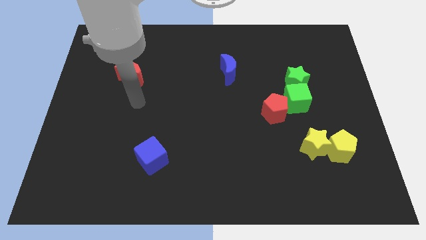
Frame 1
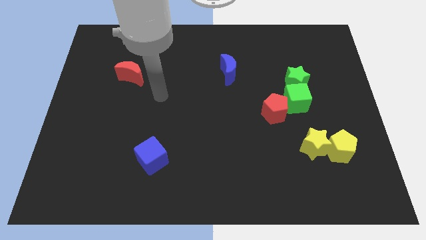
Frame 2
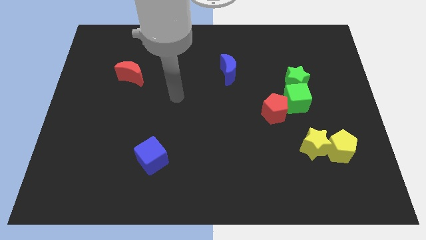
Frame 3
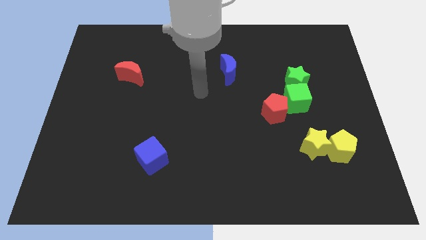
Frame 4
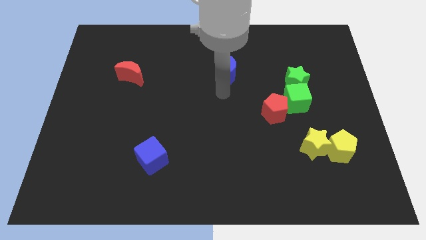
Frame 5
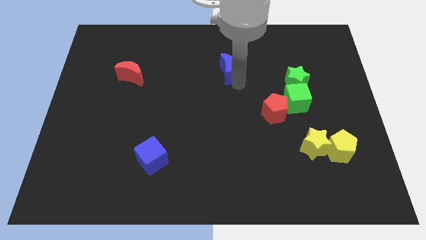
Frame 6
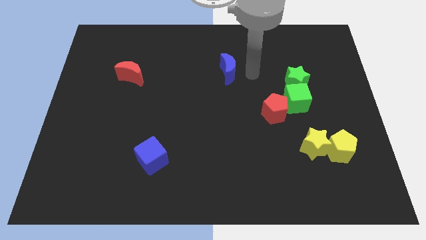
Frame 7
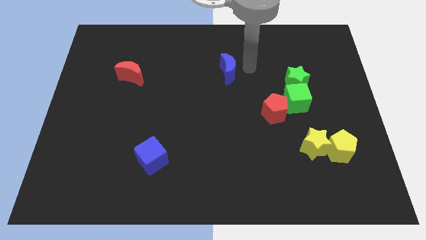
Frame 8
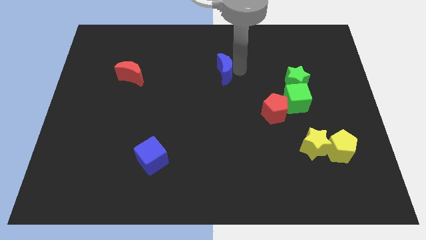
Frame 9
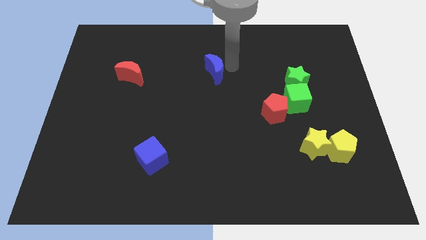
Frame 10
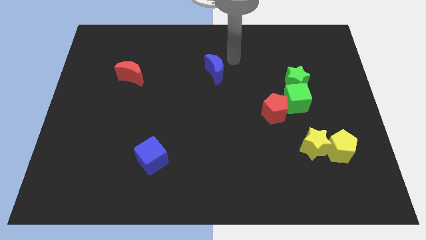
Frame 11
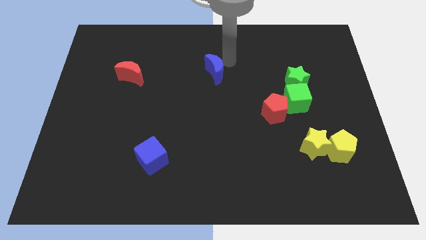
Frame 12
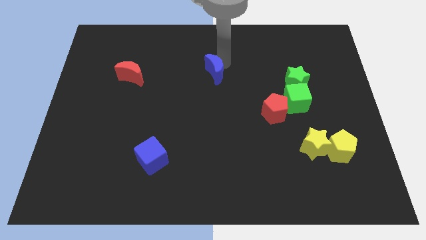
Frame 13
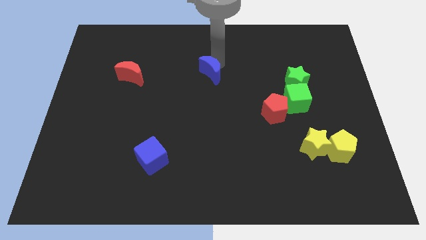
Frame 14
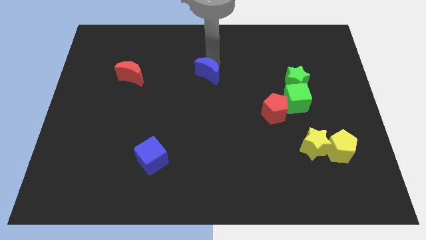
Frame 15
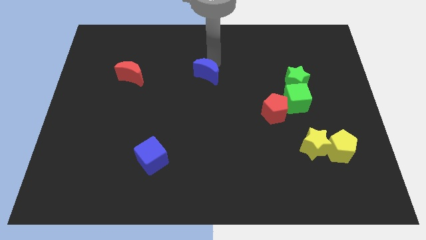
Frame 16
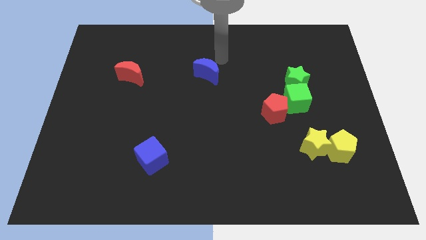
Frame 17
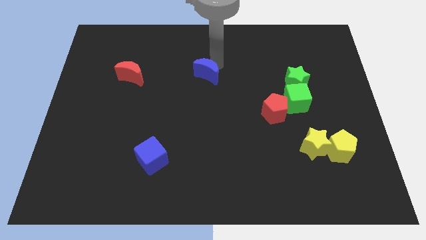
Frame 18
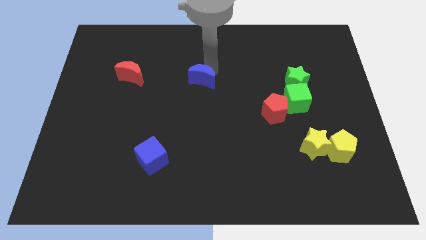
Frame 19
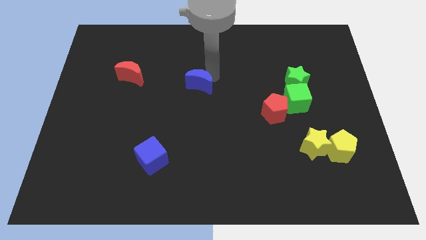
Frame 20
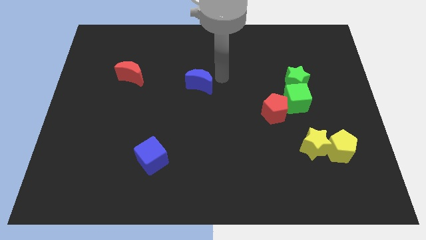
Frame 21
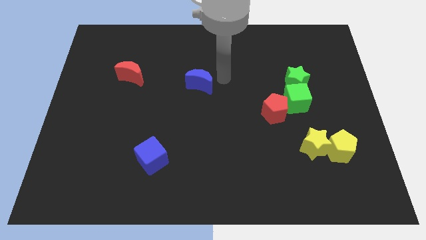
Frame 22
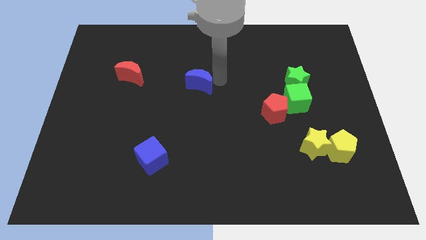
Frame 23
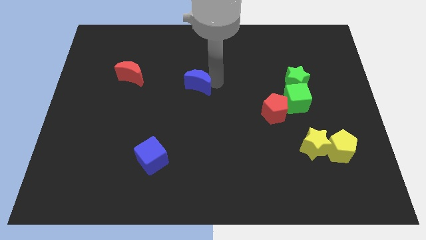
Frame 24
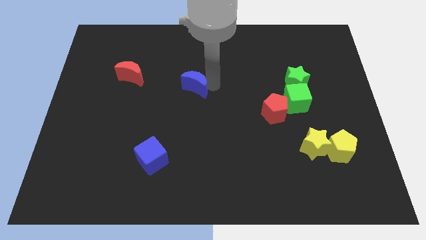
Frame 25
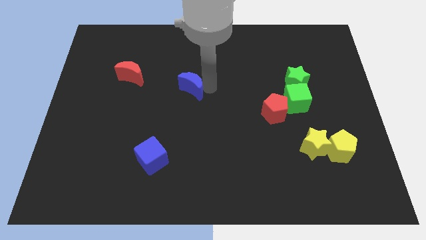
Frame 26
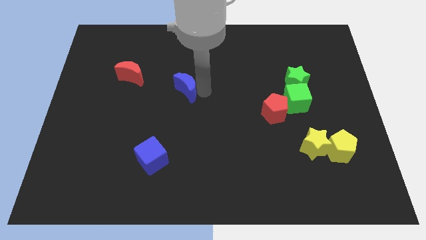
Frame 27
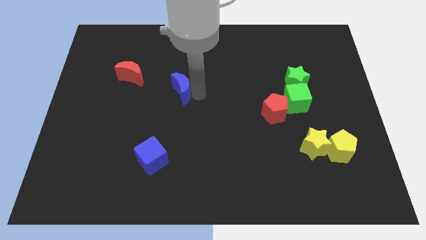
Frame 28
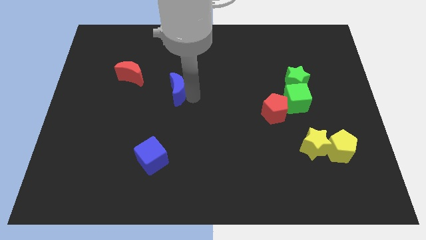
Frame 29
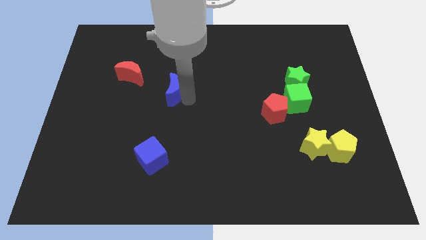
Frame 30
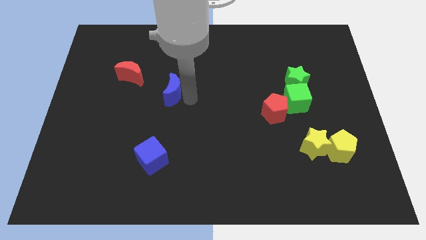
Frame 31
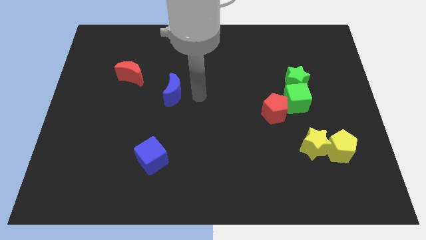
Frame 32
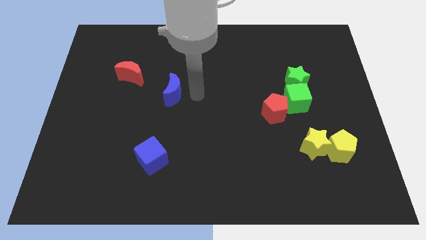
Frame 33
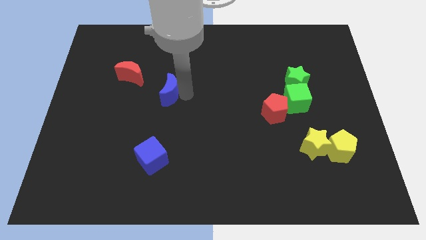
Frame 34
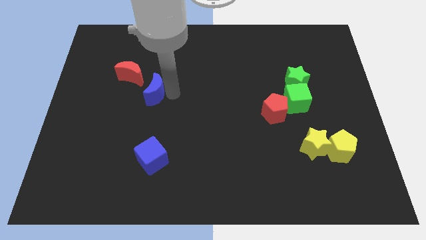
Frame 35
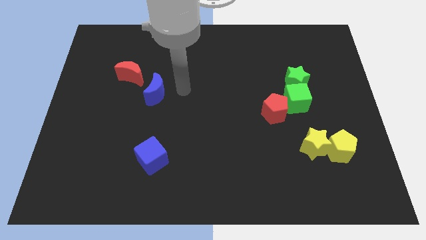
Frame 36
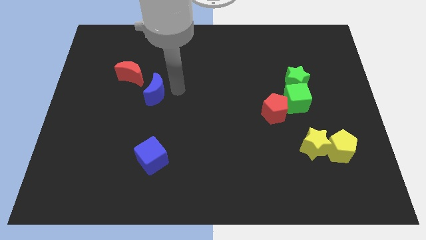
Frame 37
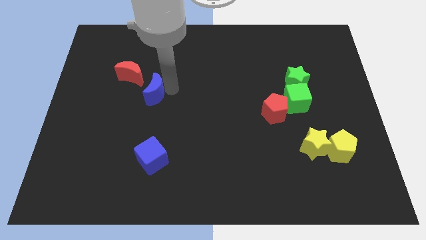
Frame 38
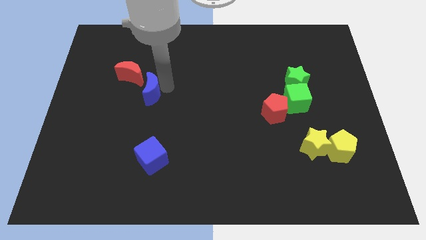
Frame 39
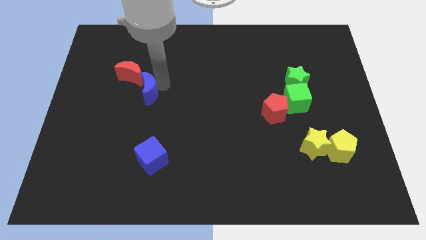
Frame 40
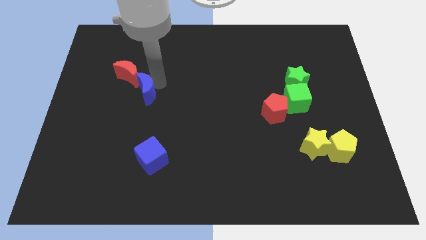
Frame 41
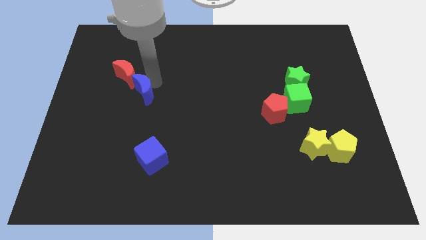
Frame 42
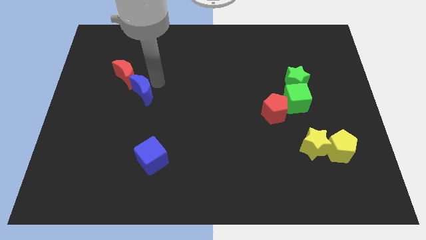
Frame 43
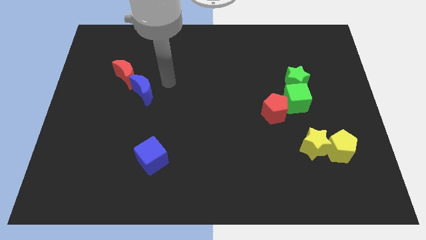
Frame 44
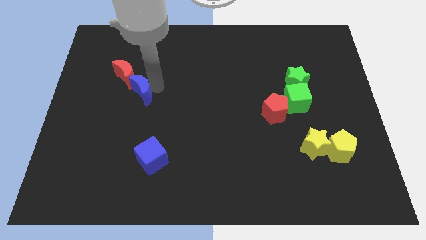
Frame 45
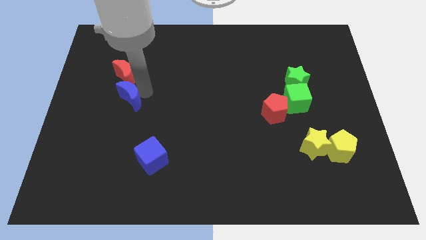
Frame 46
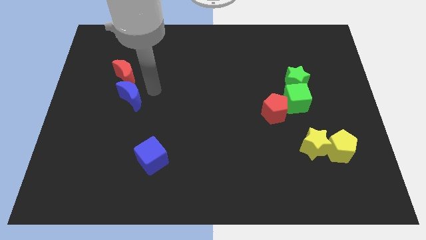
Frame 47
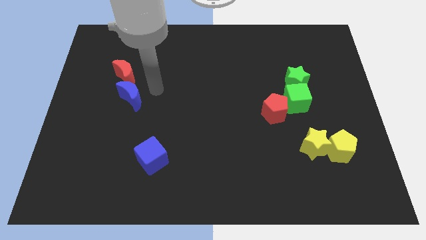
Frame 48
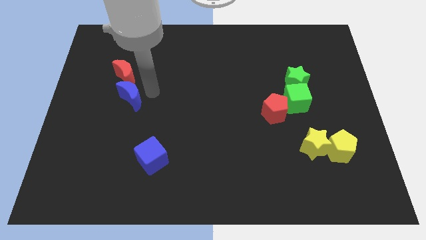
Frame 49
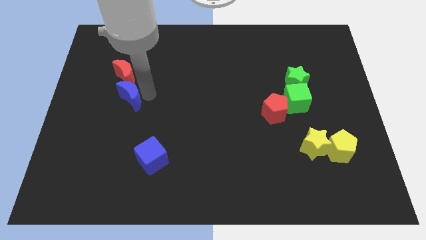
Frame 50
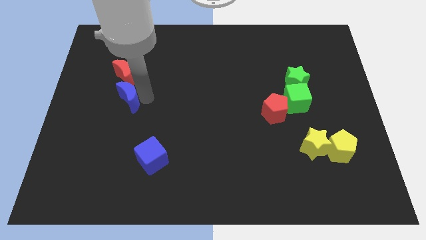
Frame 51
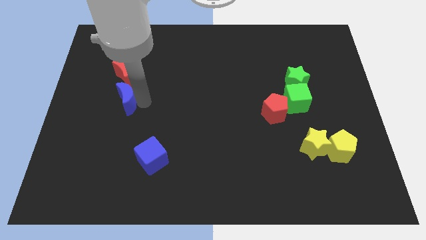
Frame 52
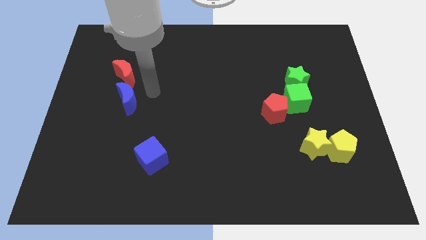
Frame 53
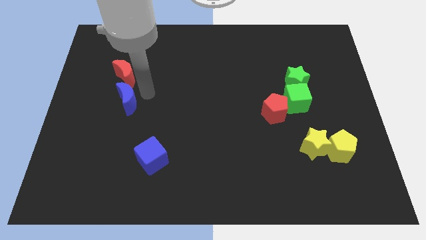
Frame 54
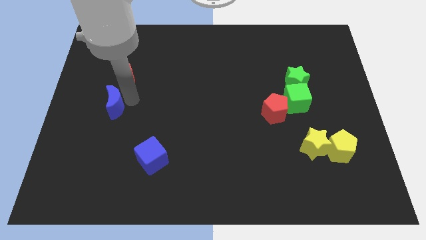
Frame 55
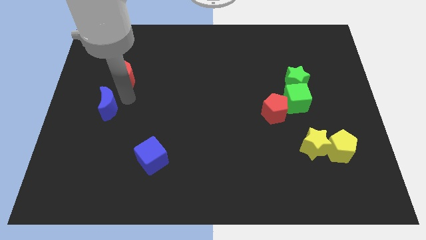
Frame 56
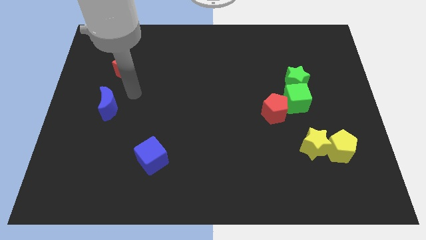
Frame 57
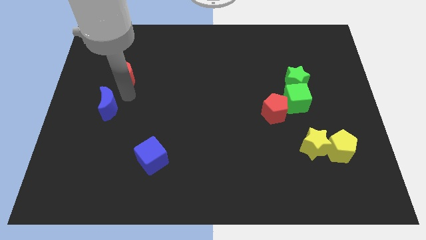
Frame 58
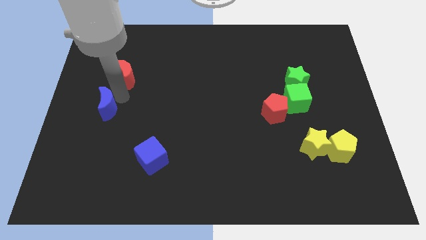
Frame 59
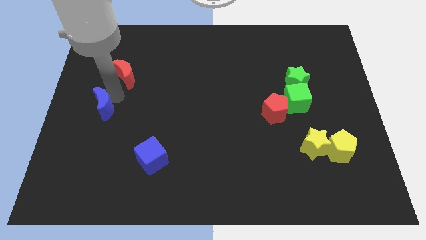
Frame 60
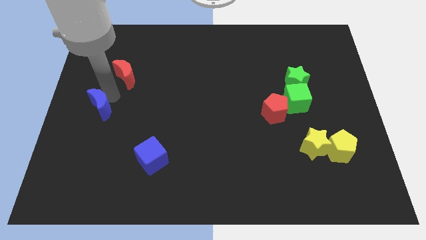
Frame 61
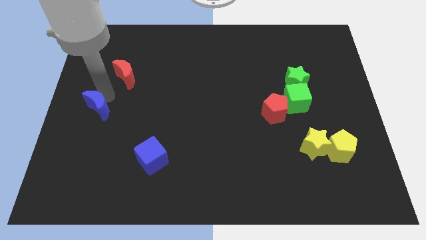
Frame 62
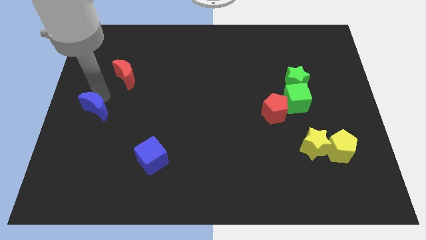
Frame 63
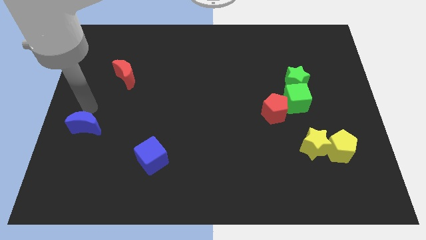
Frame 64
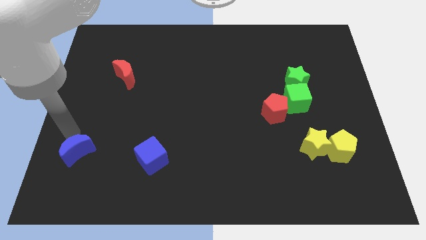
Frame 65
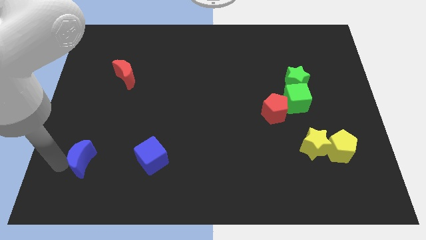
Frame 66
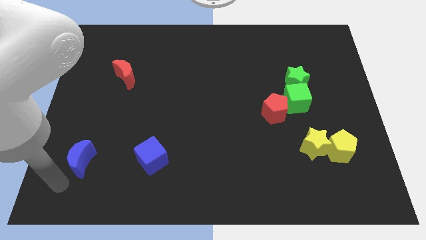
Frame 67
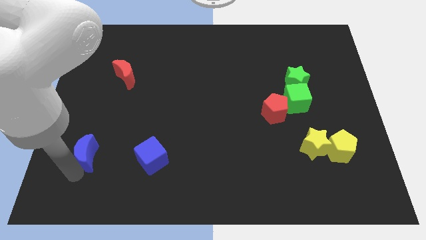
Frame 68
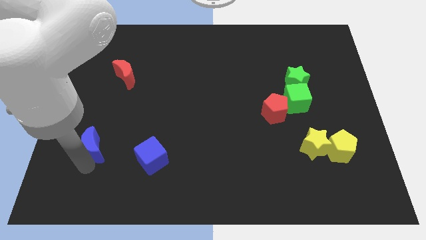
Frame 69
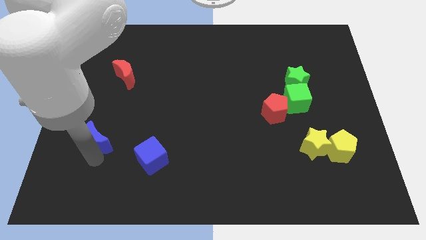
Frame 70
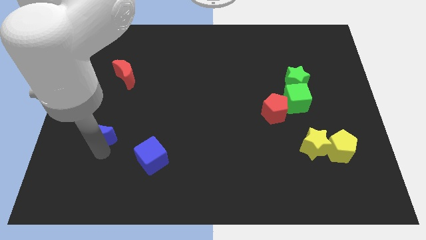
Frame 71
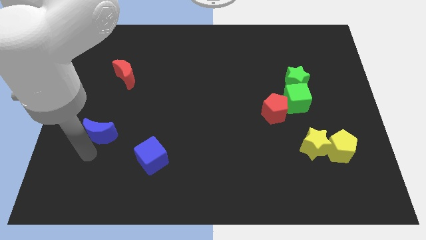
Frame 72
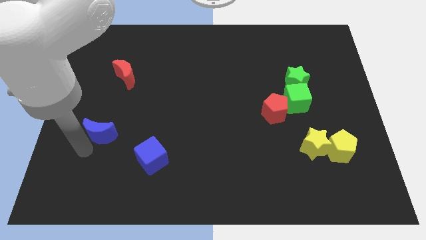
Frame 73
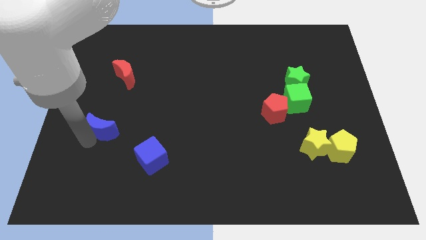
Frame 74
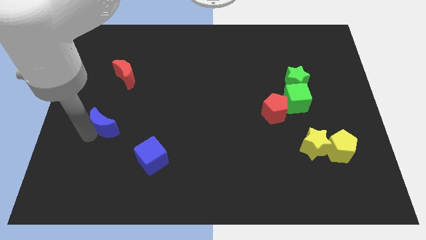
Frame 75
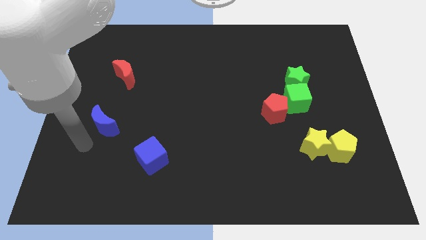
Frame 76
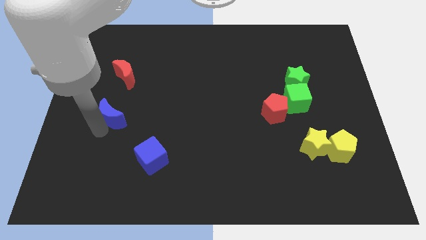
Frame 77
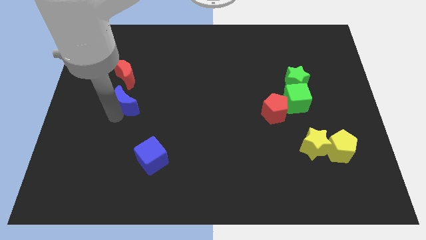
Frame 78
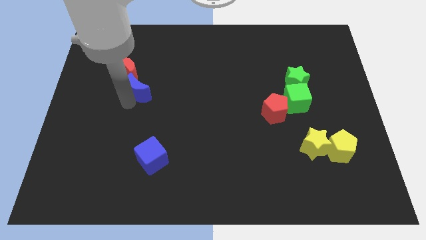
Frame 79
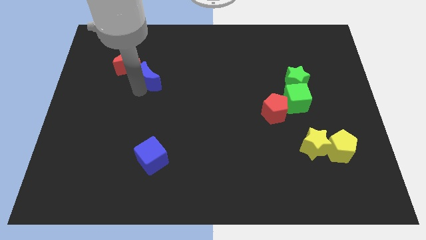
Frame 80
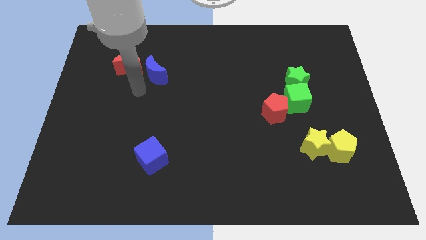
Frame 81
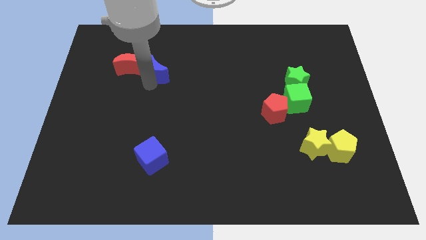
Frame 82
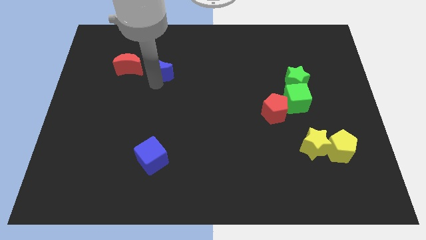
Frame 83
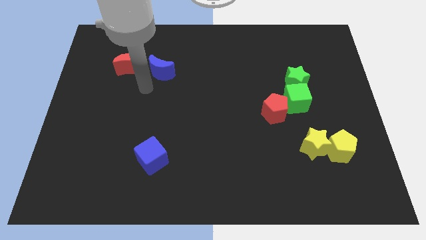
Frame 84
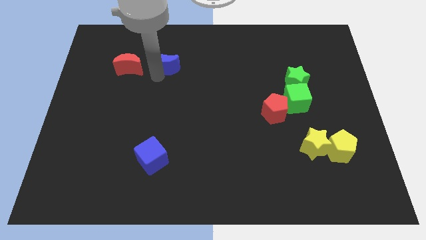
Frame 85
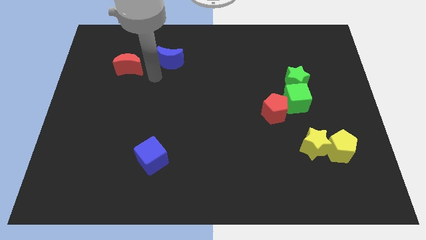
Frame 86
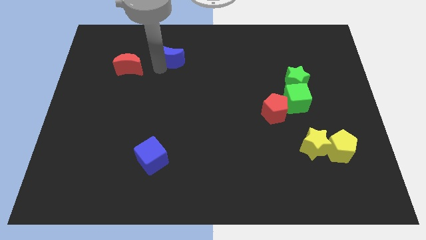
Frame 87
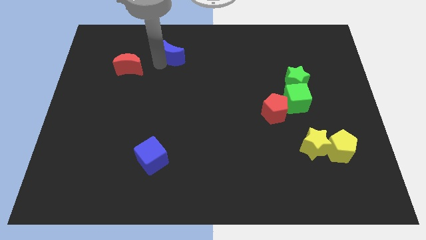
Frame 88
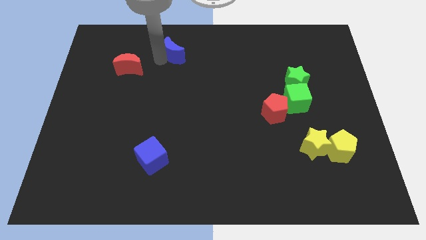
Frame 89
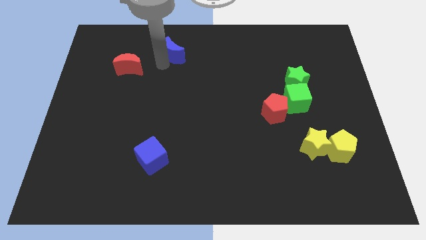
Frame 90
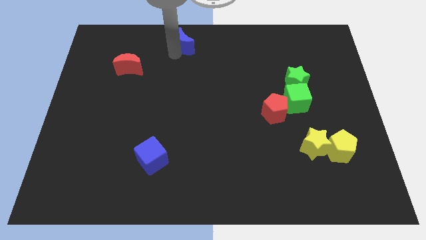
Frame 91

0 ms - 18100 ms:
move the blue moon to the top side
